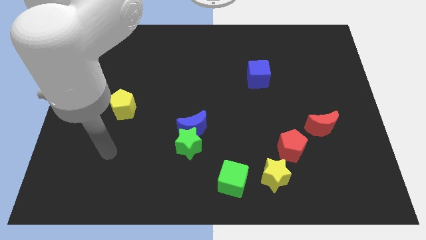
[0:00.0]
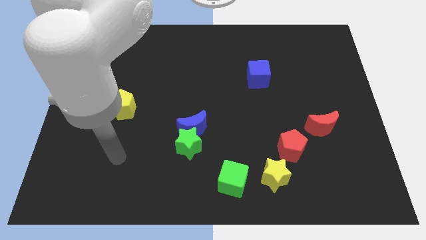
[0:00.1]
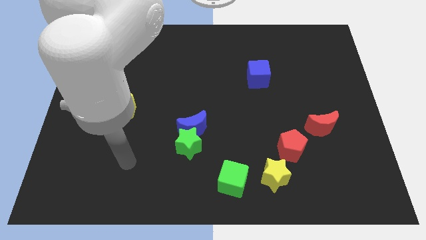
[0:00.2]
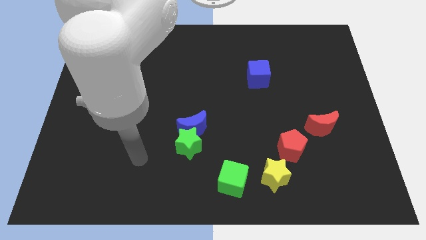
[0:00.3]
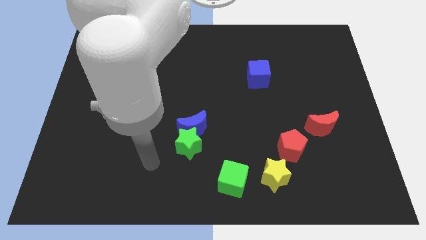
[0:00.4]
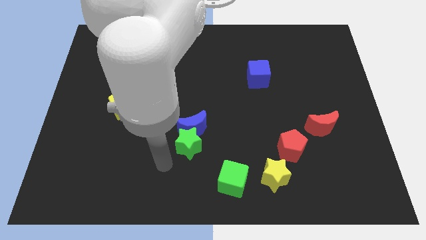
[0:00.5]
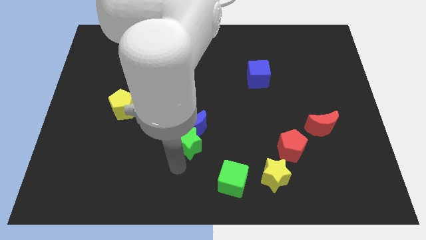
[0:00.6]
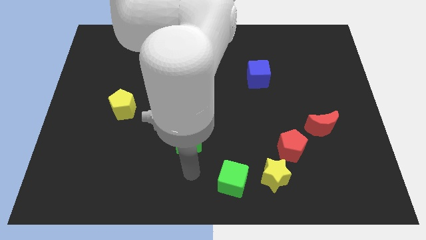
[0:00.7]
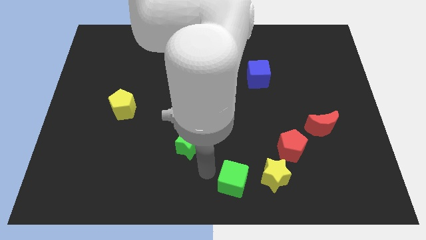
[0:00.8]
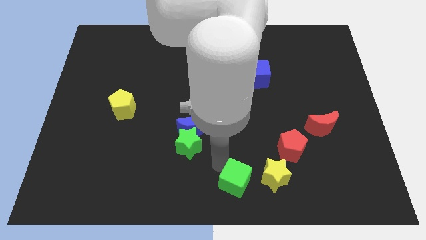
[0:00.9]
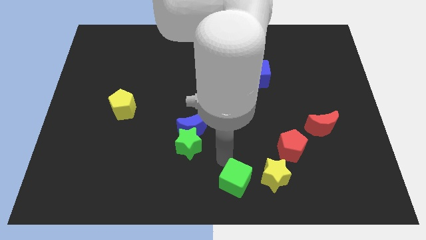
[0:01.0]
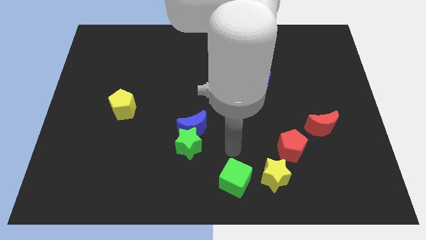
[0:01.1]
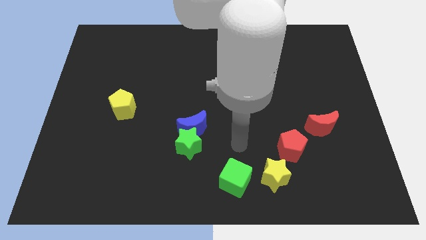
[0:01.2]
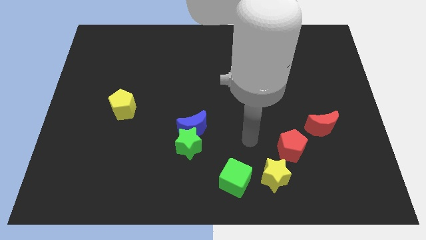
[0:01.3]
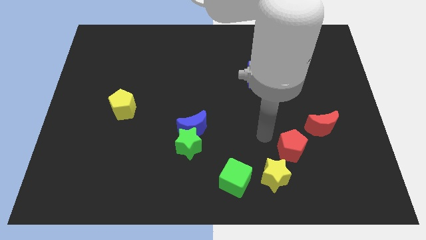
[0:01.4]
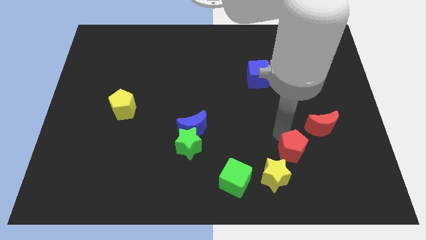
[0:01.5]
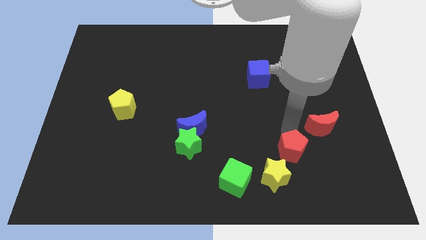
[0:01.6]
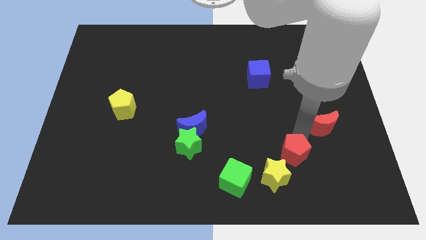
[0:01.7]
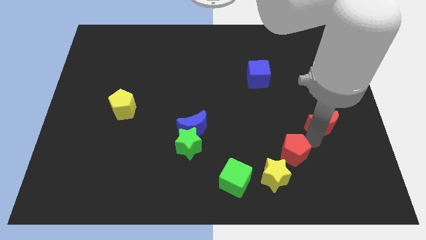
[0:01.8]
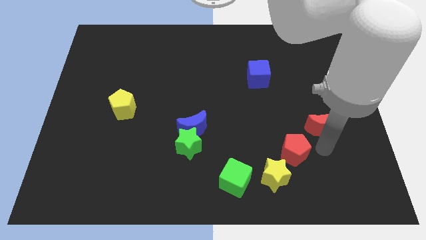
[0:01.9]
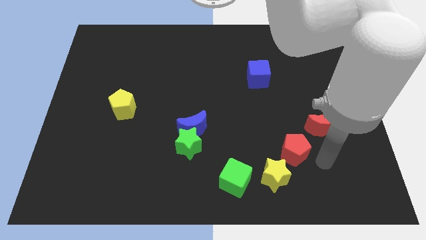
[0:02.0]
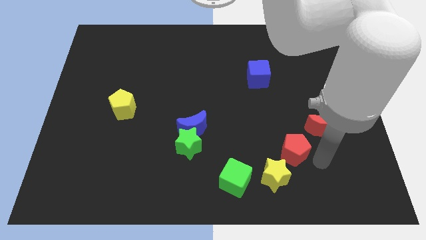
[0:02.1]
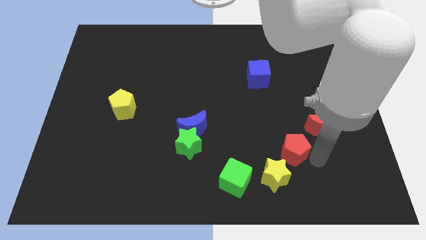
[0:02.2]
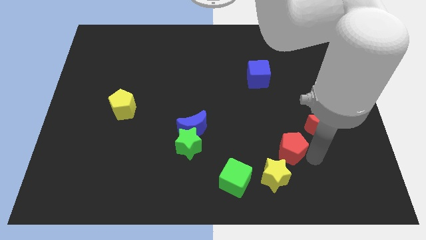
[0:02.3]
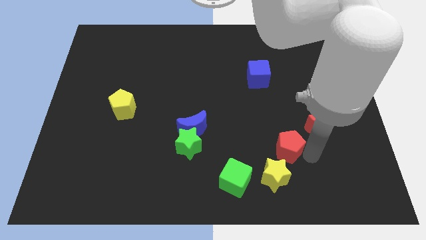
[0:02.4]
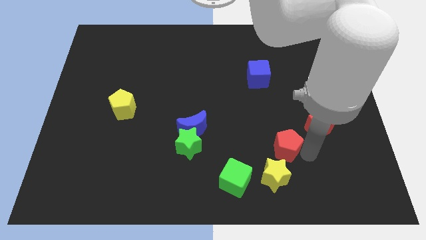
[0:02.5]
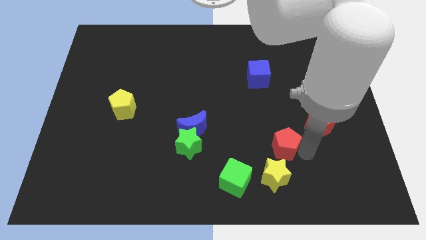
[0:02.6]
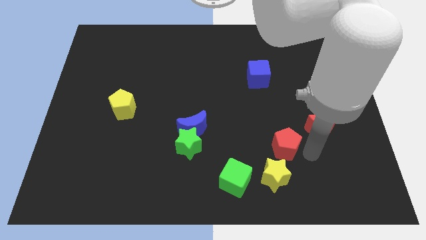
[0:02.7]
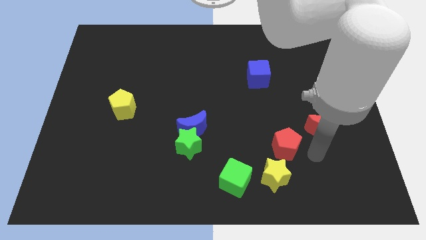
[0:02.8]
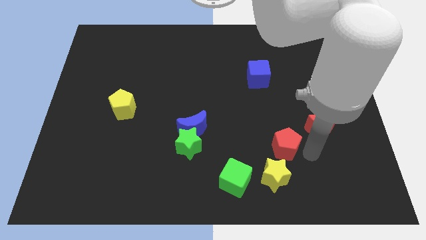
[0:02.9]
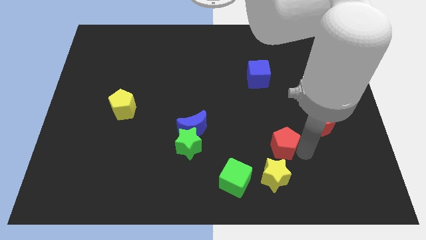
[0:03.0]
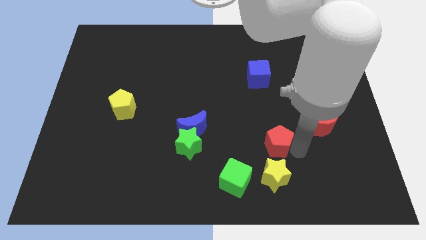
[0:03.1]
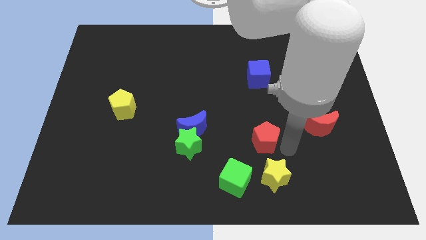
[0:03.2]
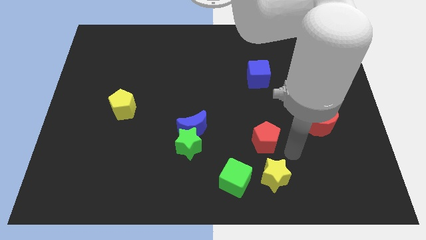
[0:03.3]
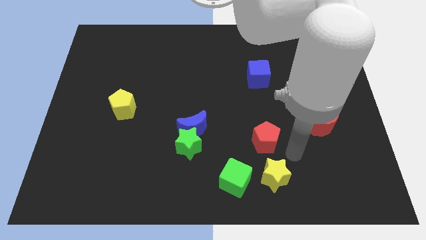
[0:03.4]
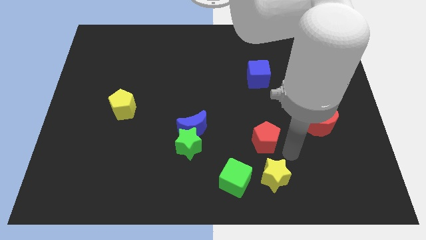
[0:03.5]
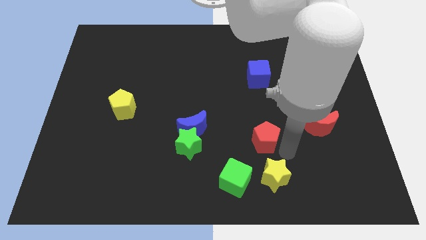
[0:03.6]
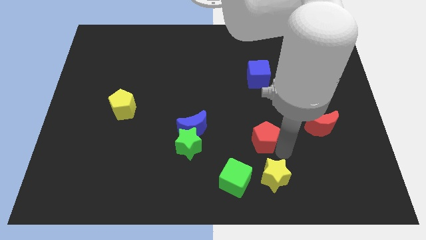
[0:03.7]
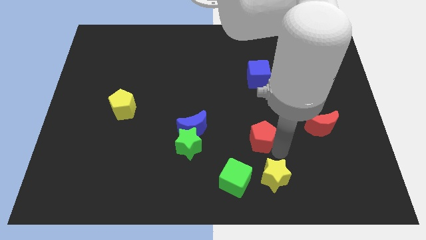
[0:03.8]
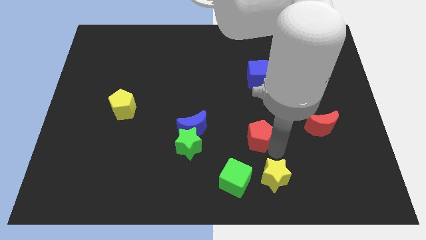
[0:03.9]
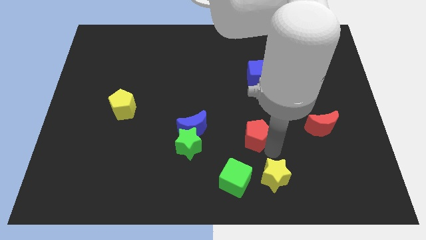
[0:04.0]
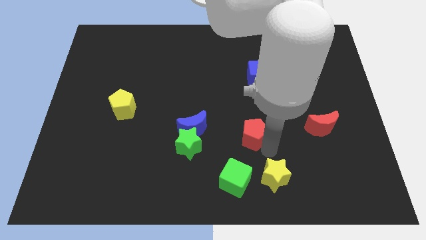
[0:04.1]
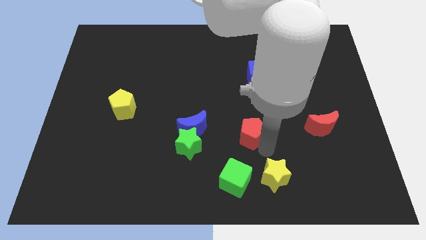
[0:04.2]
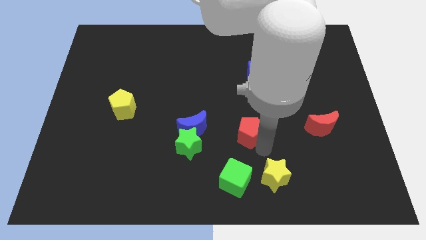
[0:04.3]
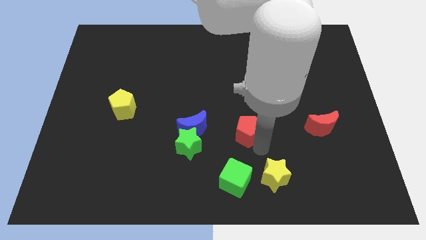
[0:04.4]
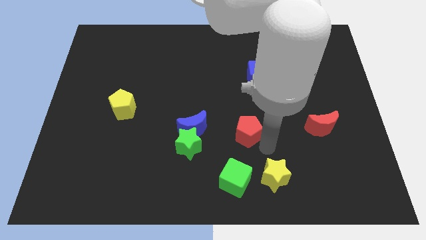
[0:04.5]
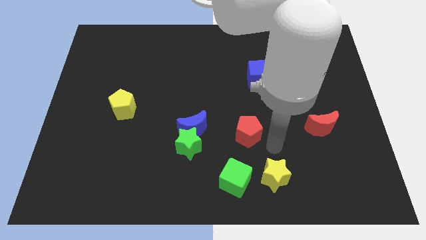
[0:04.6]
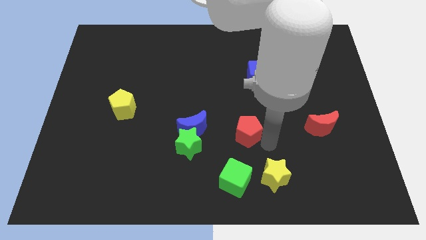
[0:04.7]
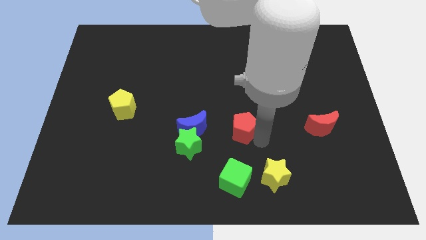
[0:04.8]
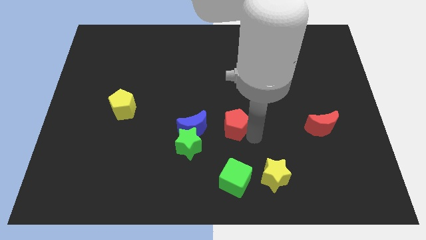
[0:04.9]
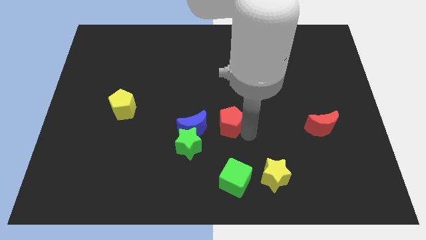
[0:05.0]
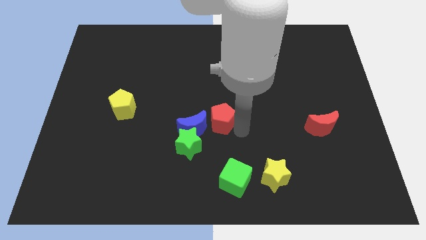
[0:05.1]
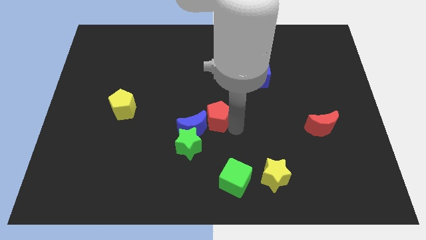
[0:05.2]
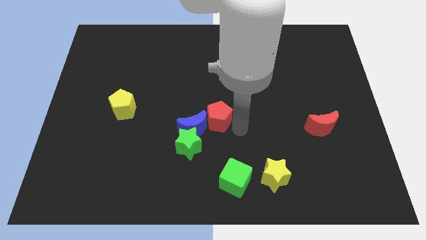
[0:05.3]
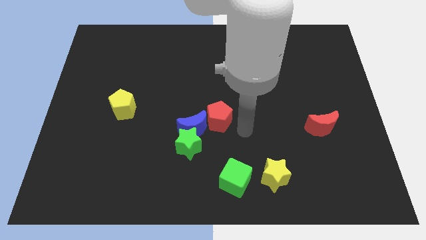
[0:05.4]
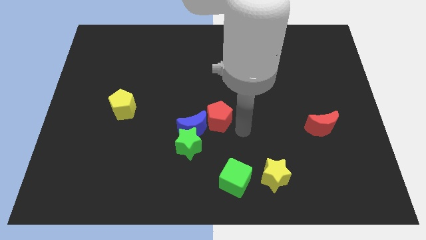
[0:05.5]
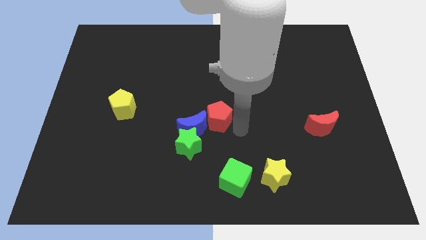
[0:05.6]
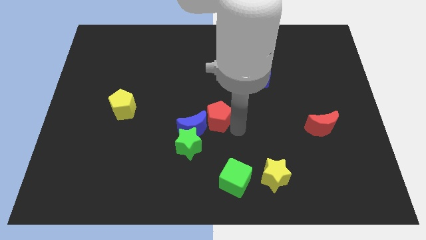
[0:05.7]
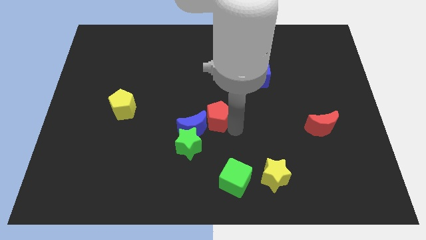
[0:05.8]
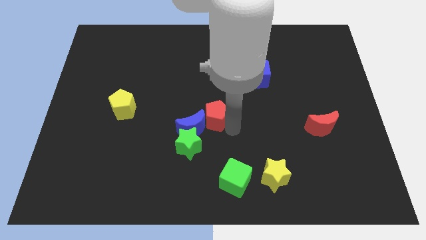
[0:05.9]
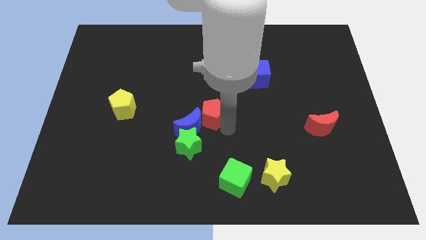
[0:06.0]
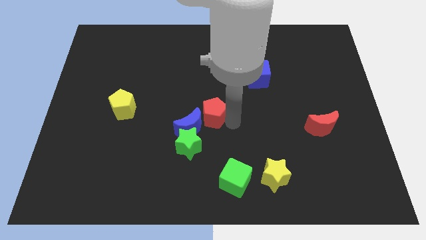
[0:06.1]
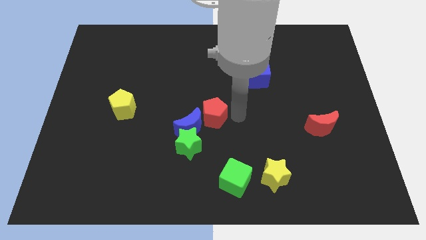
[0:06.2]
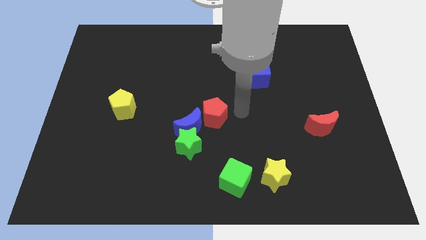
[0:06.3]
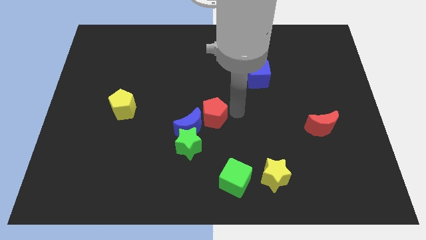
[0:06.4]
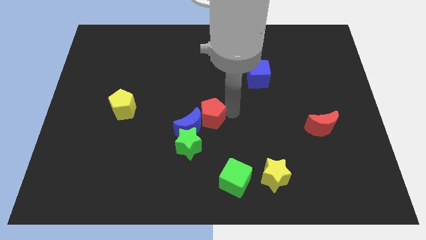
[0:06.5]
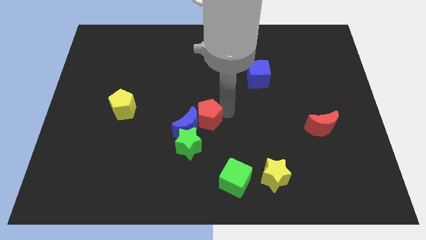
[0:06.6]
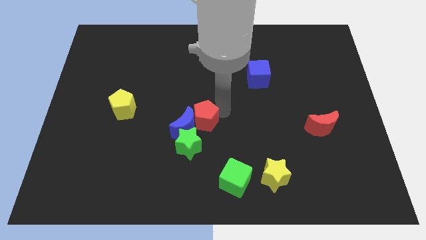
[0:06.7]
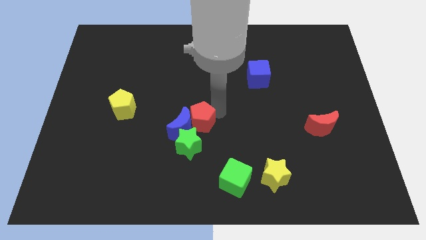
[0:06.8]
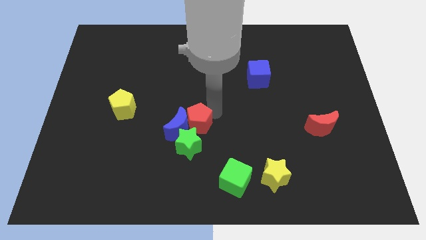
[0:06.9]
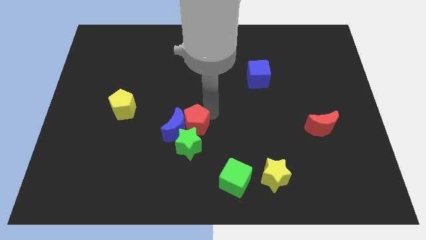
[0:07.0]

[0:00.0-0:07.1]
slide the red pentagon diagonally up and to the left of the green star
